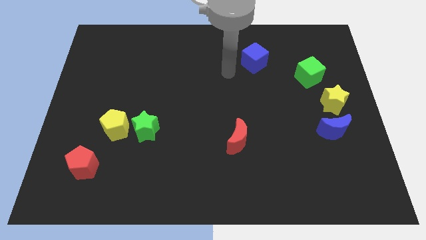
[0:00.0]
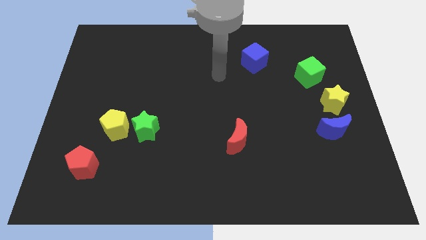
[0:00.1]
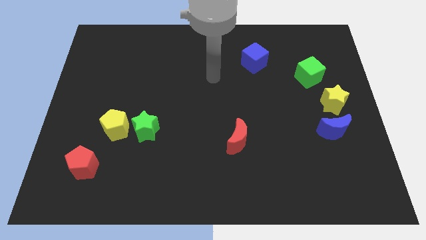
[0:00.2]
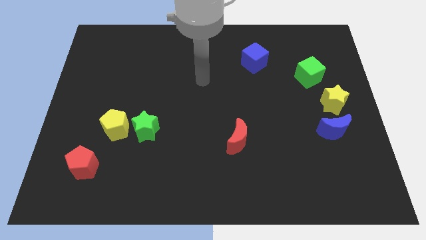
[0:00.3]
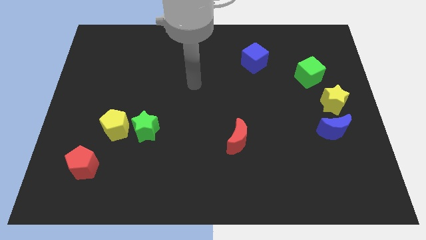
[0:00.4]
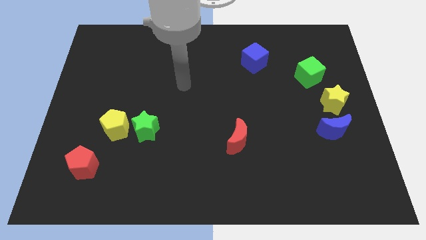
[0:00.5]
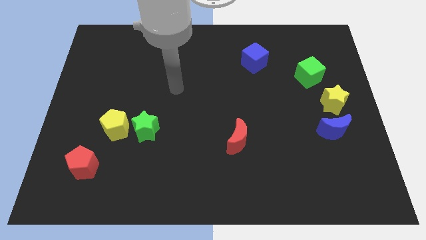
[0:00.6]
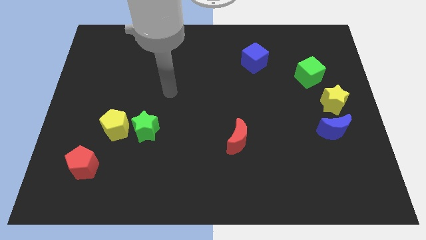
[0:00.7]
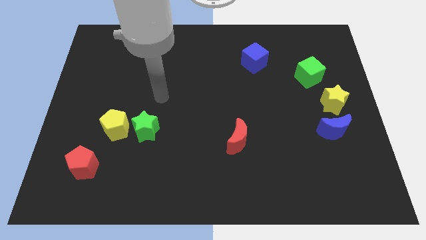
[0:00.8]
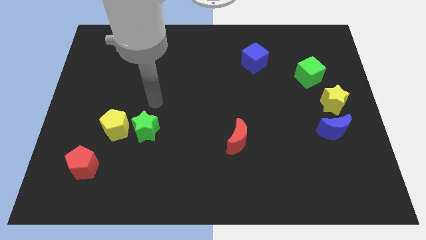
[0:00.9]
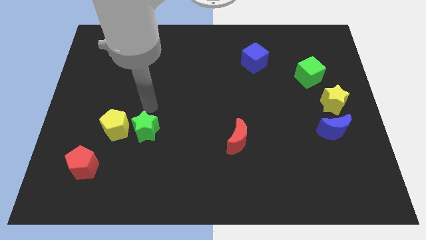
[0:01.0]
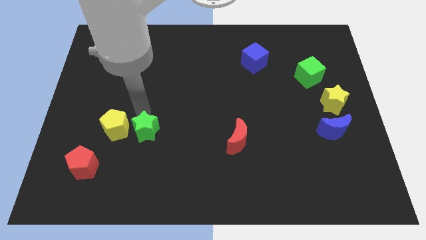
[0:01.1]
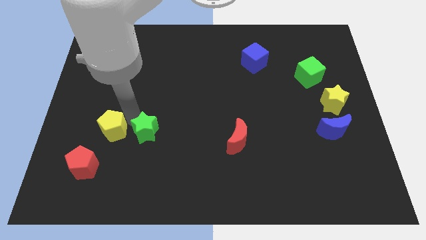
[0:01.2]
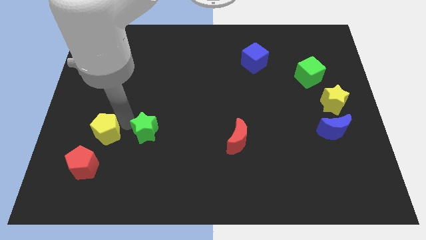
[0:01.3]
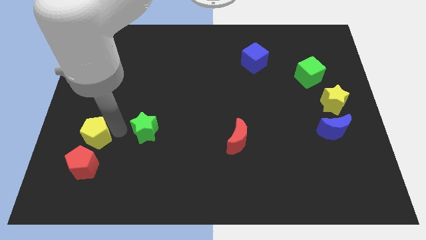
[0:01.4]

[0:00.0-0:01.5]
pull the green star apart from the yellow pentagon

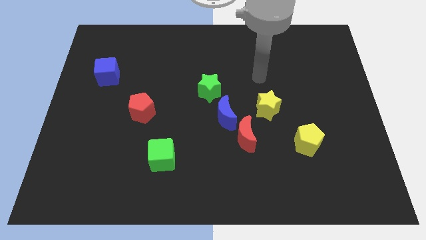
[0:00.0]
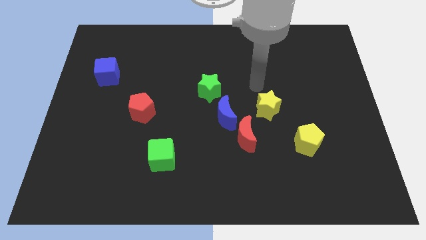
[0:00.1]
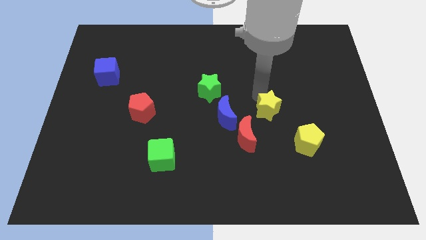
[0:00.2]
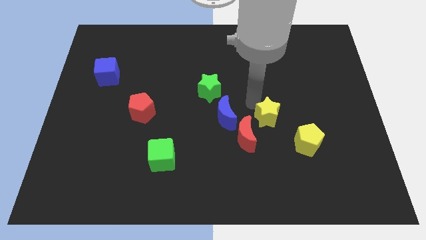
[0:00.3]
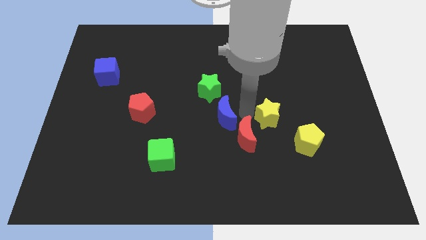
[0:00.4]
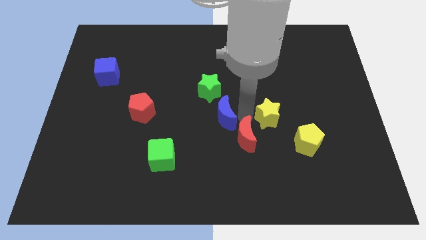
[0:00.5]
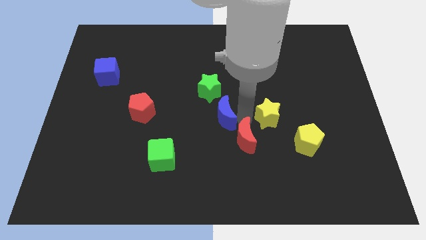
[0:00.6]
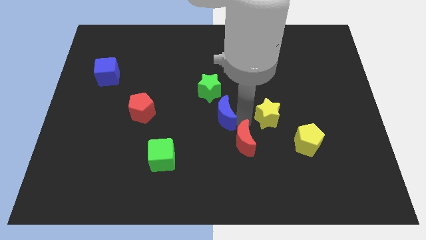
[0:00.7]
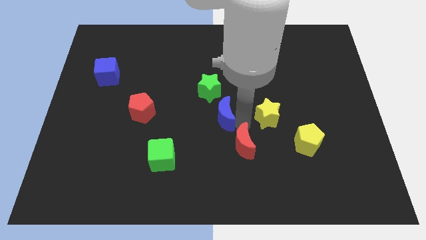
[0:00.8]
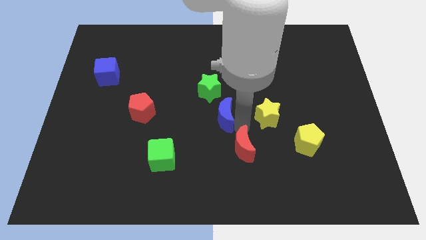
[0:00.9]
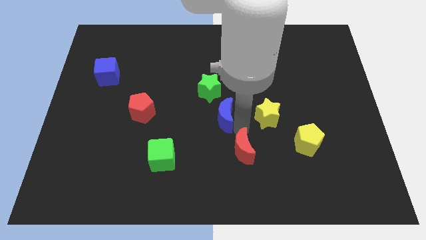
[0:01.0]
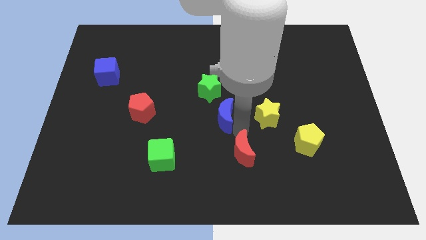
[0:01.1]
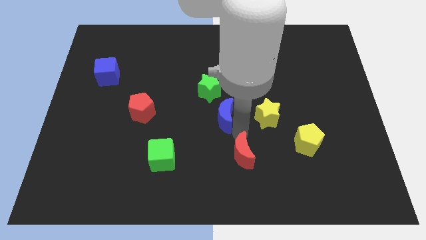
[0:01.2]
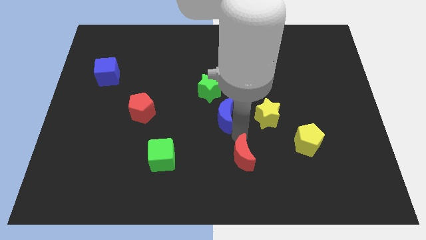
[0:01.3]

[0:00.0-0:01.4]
separate the red moon from the blue moon and yellow star

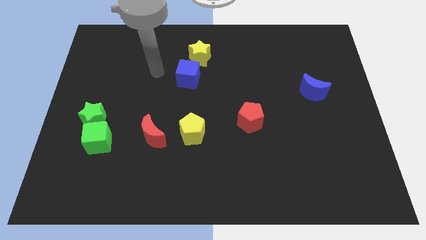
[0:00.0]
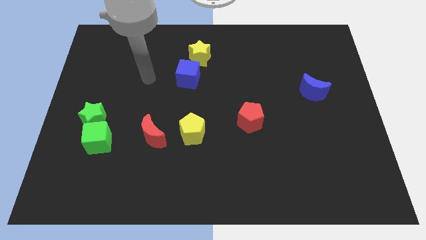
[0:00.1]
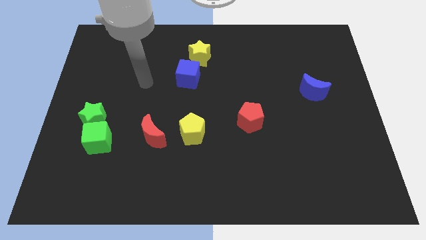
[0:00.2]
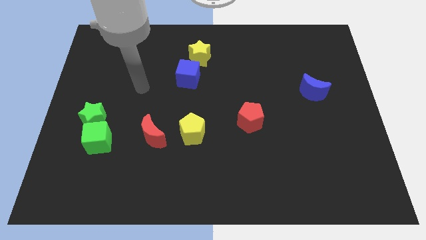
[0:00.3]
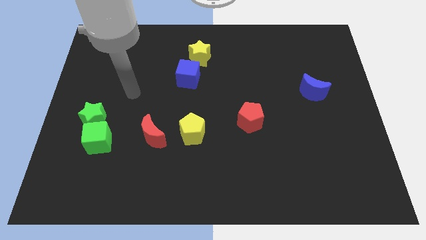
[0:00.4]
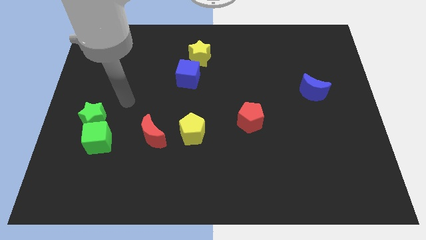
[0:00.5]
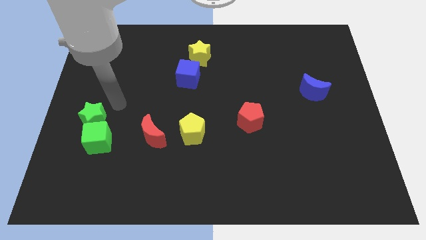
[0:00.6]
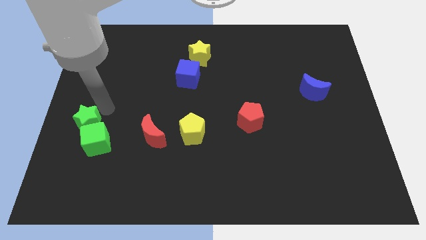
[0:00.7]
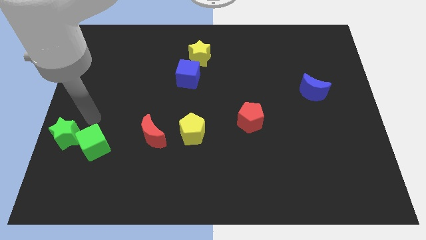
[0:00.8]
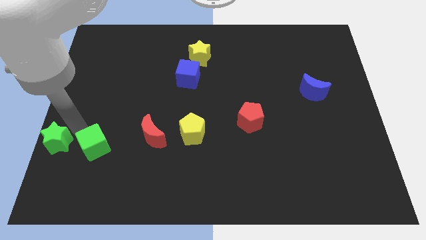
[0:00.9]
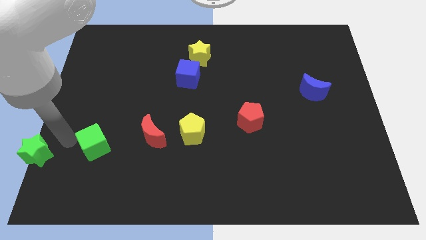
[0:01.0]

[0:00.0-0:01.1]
pull the green cube apart from the green star

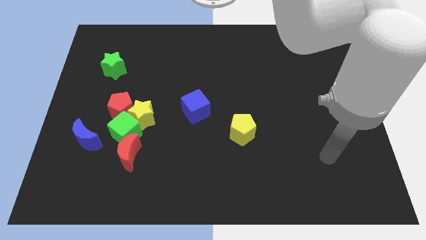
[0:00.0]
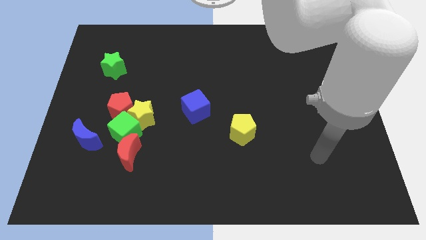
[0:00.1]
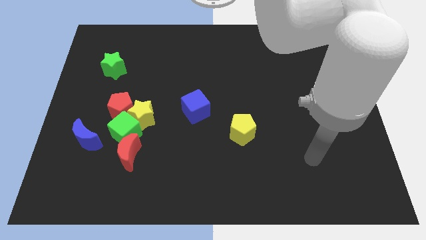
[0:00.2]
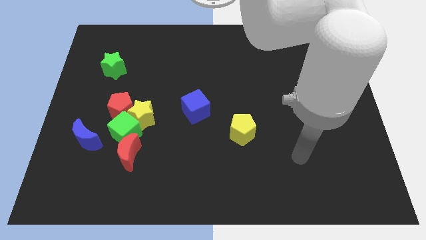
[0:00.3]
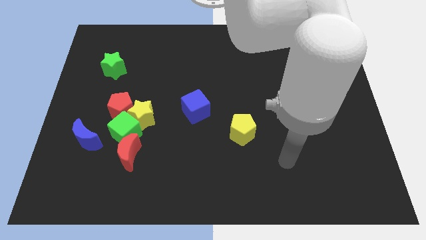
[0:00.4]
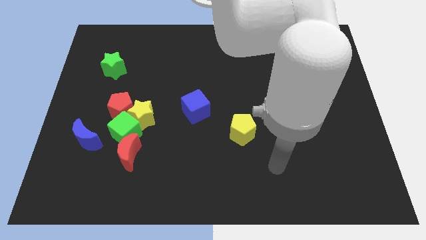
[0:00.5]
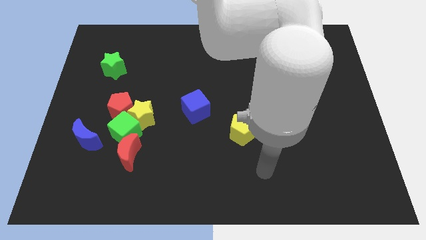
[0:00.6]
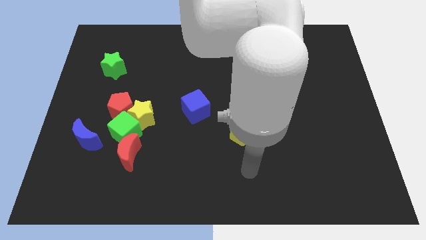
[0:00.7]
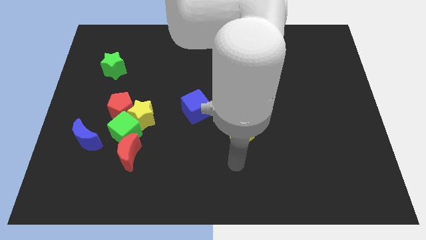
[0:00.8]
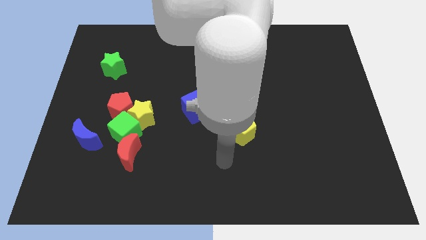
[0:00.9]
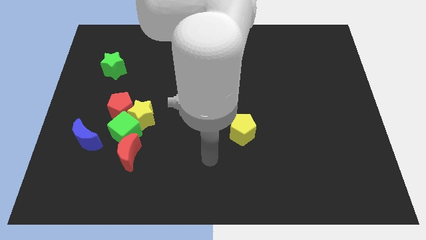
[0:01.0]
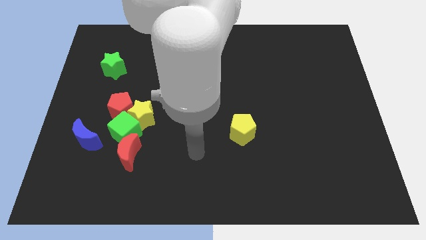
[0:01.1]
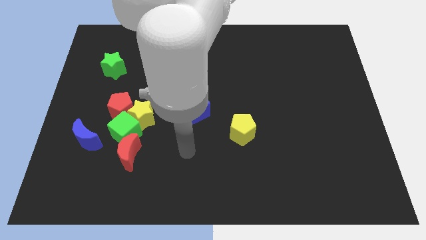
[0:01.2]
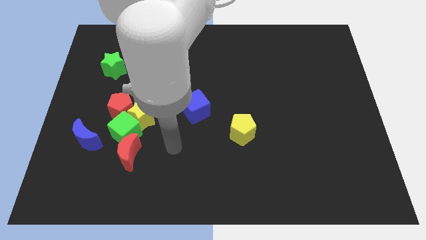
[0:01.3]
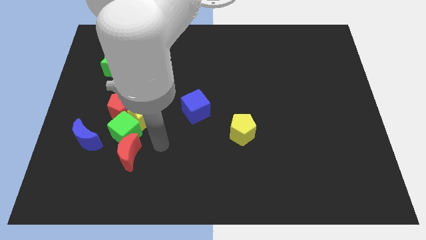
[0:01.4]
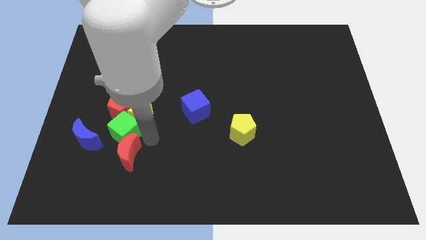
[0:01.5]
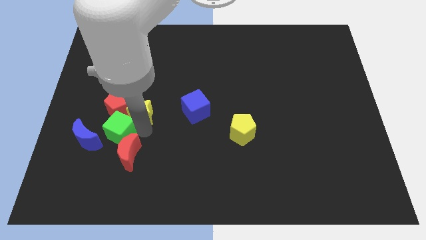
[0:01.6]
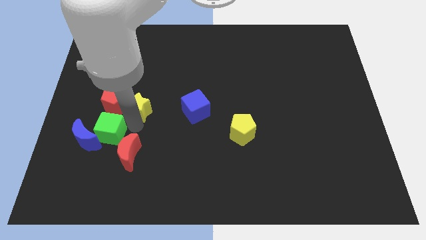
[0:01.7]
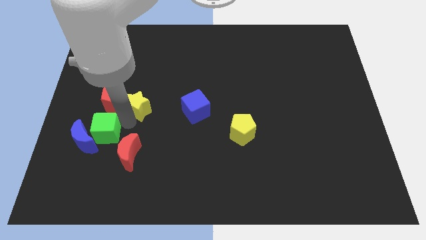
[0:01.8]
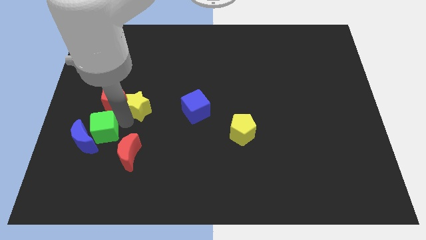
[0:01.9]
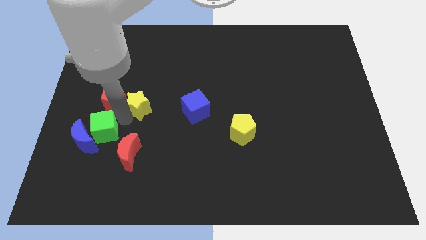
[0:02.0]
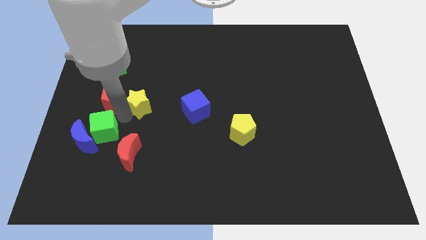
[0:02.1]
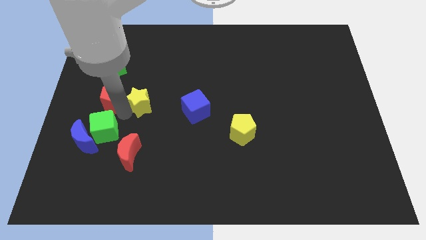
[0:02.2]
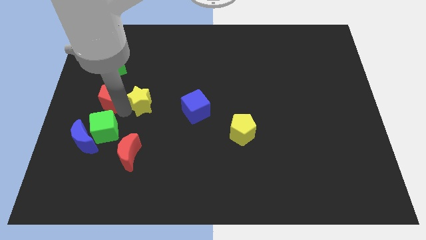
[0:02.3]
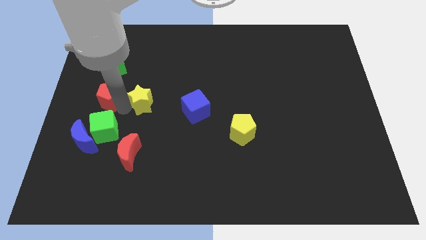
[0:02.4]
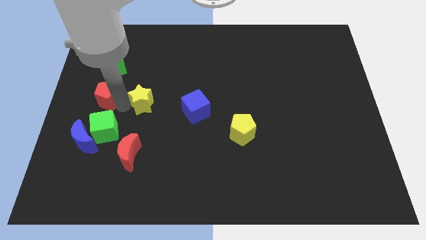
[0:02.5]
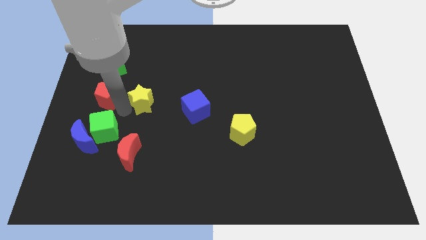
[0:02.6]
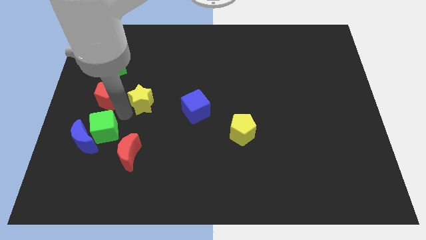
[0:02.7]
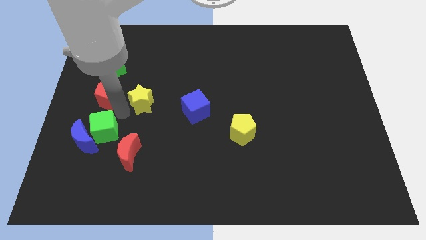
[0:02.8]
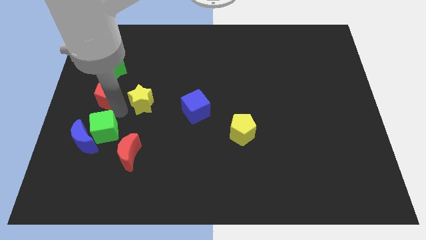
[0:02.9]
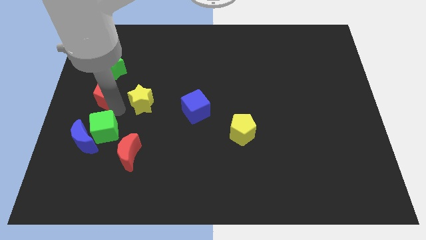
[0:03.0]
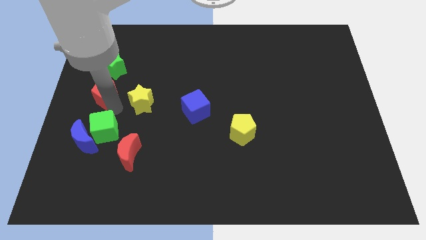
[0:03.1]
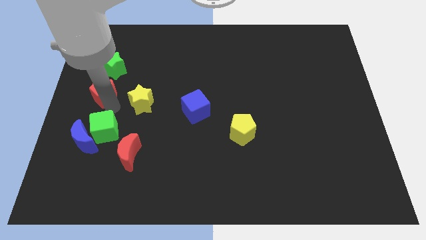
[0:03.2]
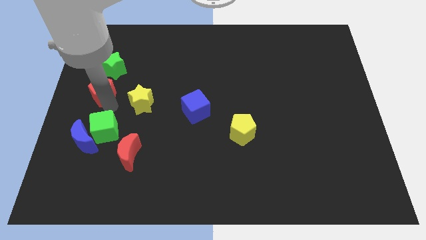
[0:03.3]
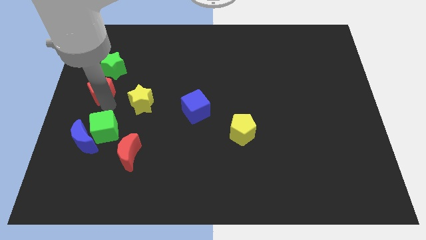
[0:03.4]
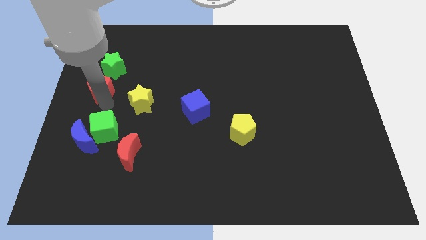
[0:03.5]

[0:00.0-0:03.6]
separate the red pentagon from the yellow star and green cube

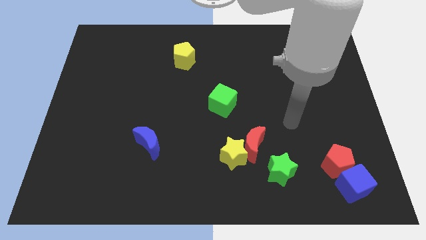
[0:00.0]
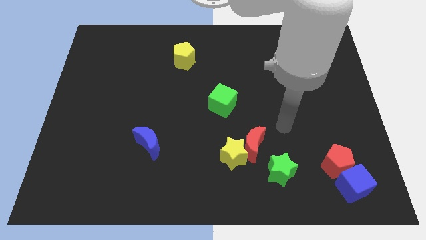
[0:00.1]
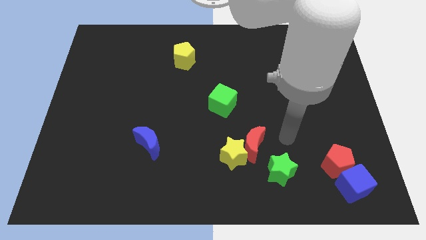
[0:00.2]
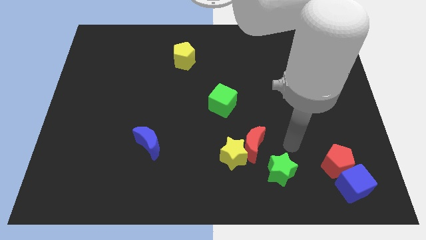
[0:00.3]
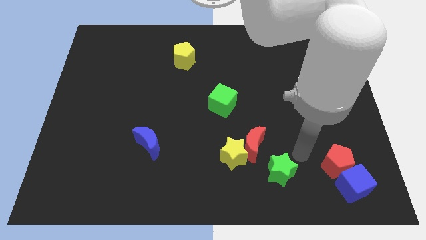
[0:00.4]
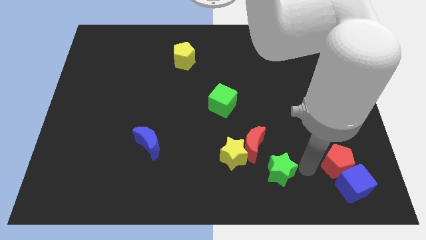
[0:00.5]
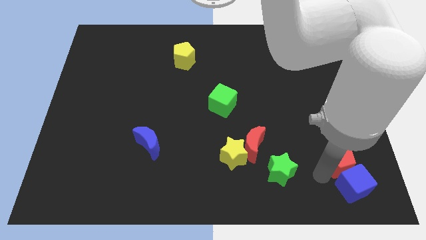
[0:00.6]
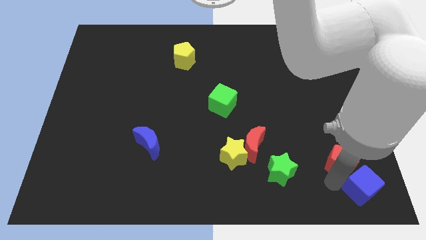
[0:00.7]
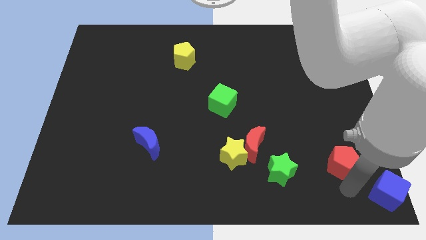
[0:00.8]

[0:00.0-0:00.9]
pull the red pentagon apart from the blue cube

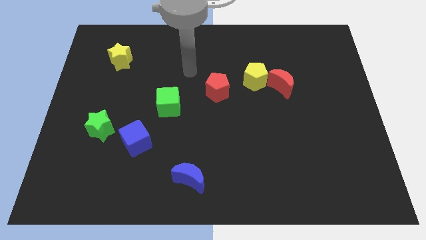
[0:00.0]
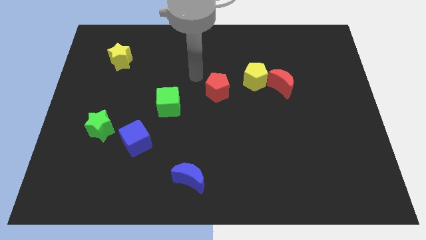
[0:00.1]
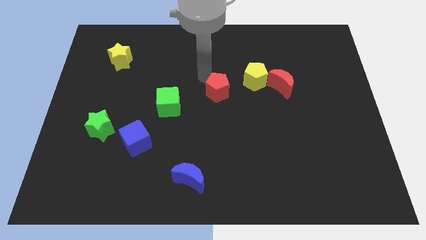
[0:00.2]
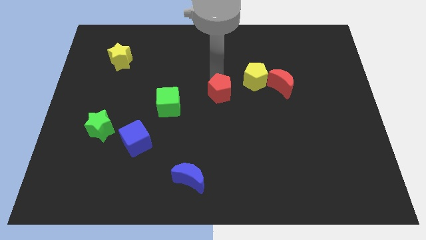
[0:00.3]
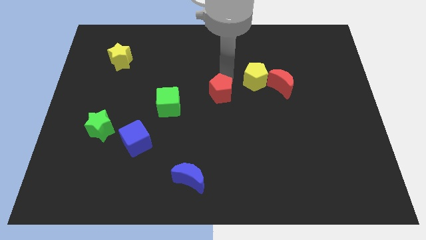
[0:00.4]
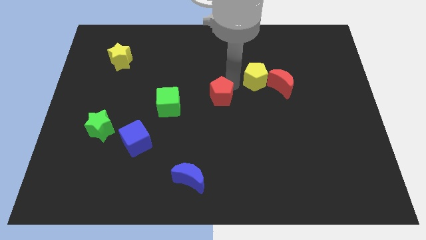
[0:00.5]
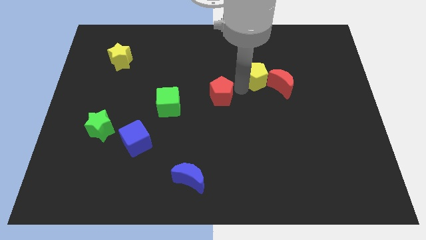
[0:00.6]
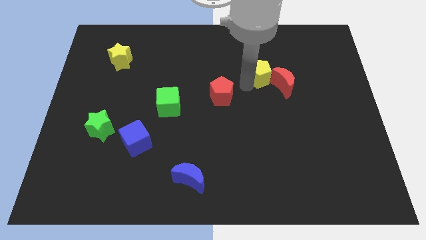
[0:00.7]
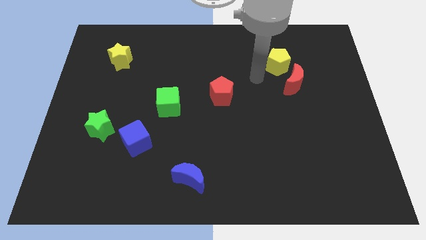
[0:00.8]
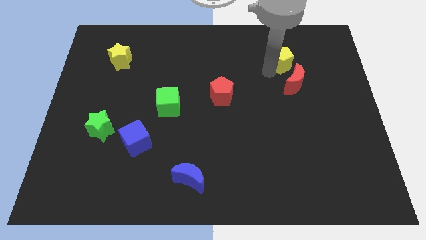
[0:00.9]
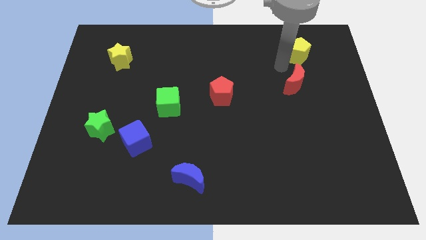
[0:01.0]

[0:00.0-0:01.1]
separate the red moon from the yellow pentagon
